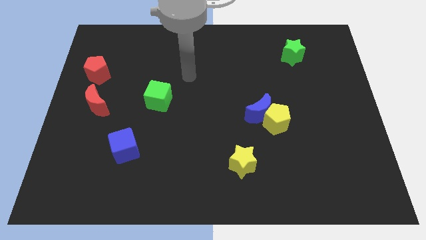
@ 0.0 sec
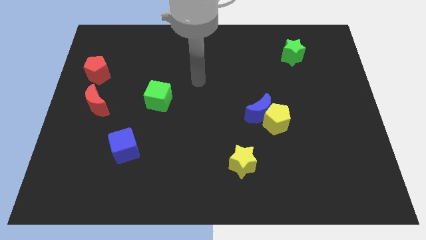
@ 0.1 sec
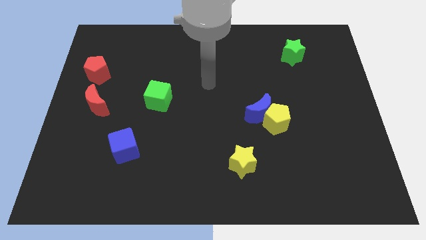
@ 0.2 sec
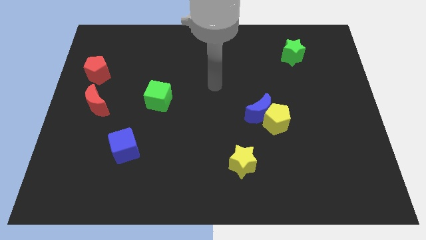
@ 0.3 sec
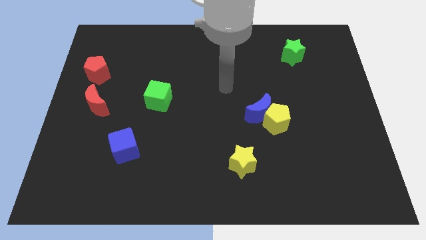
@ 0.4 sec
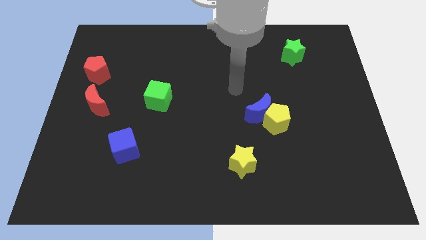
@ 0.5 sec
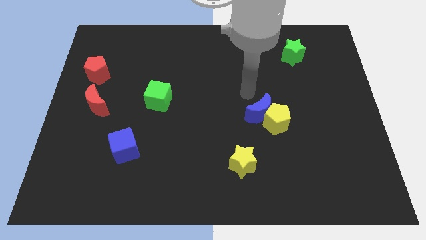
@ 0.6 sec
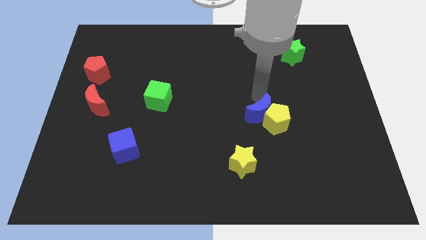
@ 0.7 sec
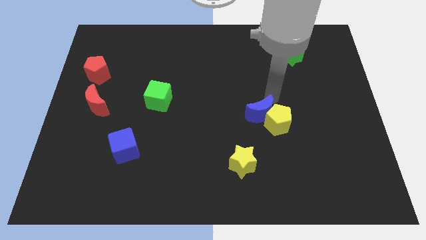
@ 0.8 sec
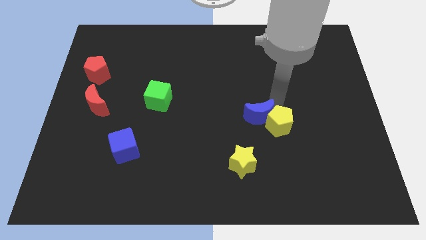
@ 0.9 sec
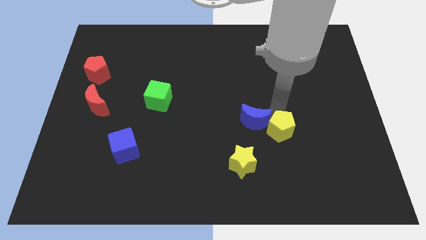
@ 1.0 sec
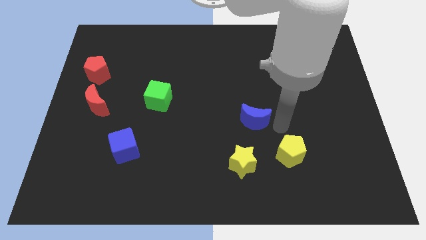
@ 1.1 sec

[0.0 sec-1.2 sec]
pull the blue moon apart from the yellow pentagon

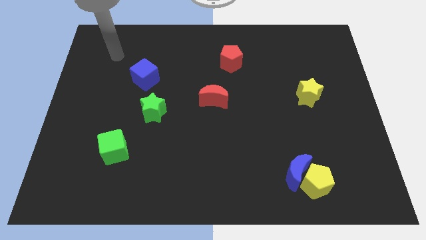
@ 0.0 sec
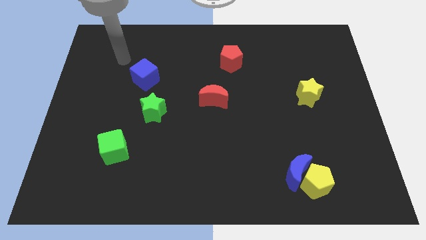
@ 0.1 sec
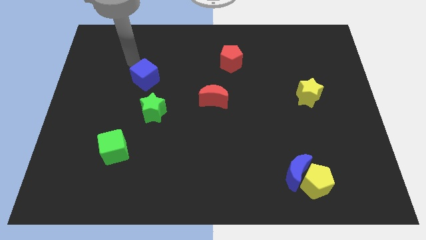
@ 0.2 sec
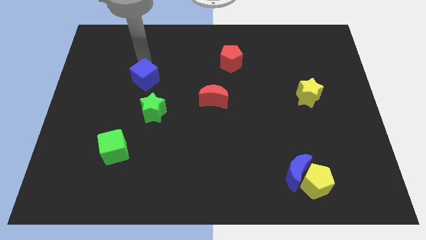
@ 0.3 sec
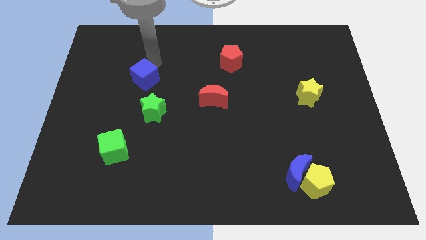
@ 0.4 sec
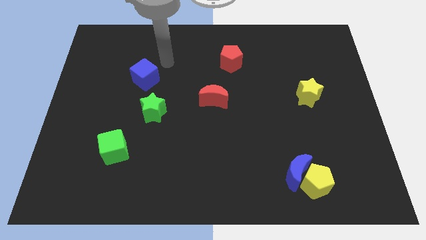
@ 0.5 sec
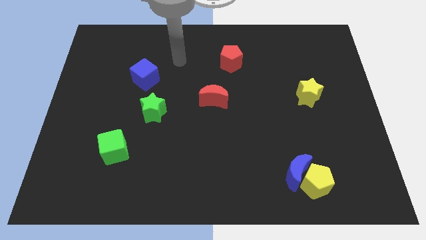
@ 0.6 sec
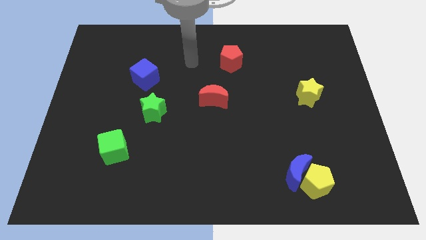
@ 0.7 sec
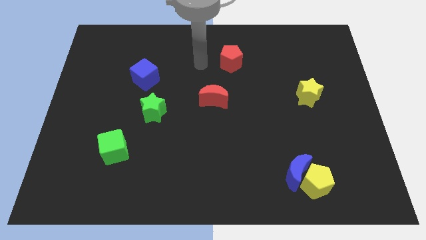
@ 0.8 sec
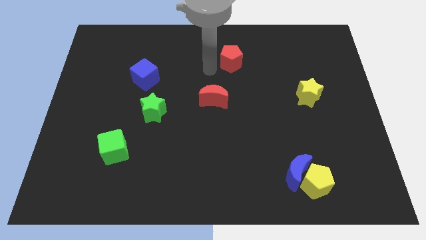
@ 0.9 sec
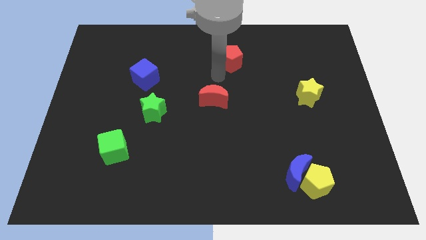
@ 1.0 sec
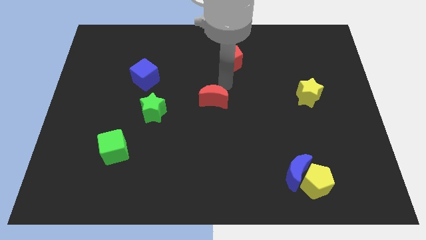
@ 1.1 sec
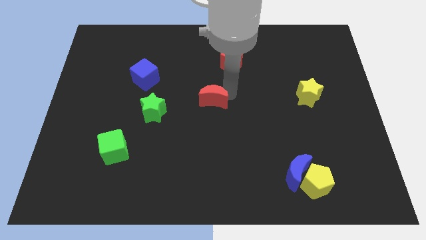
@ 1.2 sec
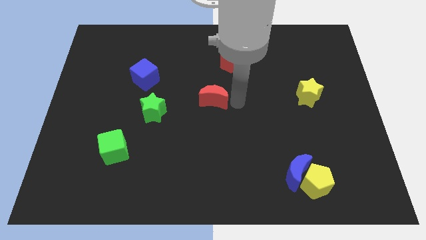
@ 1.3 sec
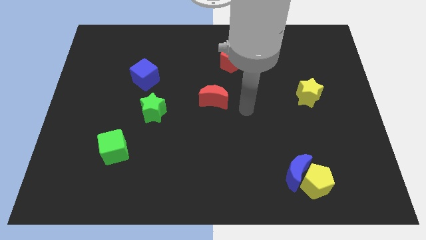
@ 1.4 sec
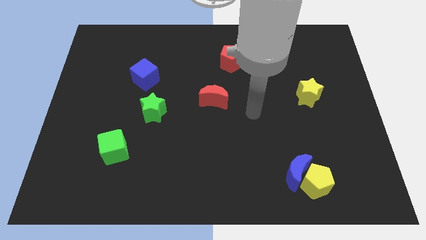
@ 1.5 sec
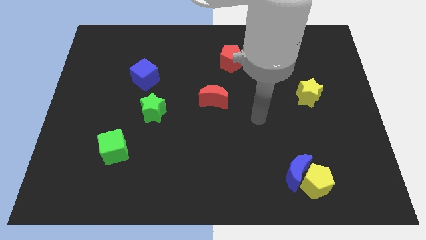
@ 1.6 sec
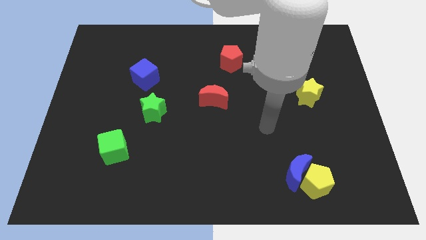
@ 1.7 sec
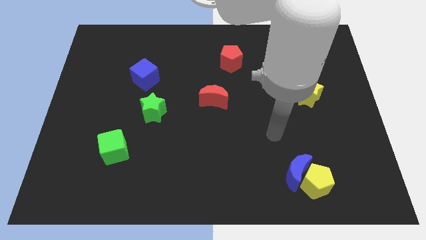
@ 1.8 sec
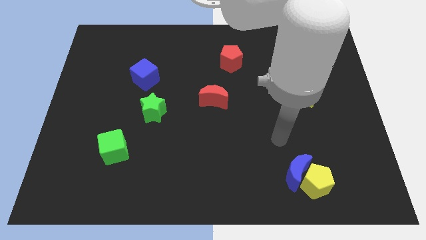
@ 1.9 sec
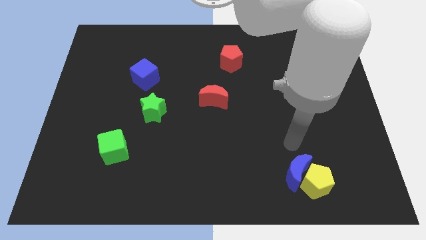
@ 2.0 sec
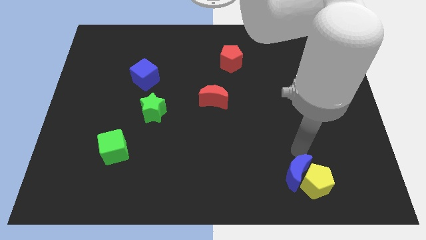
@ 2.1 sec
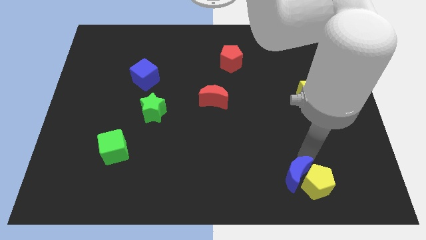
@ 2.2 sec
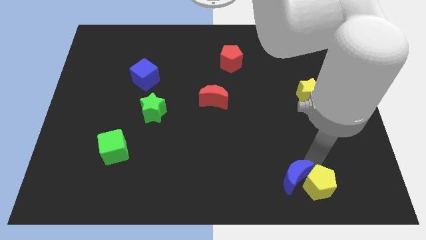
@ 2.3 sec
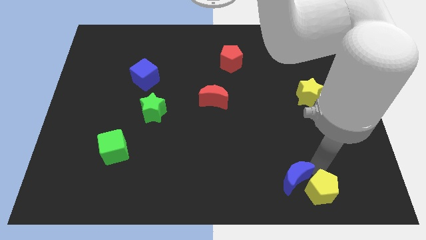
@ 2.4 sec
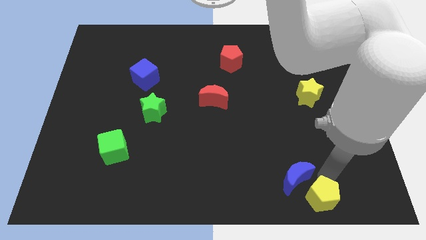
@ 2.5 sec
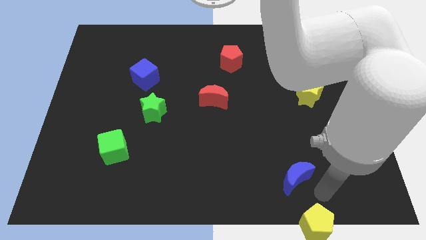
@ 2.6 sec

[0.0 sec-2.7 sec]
separate the blue moon from the yellow pentagon

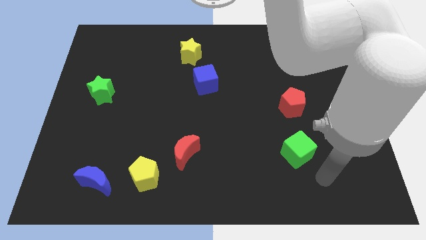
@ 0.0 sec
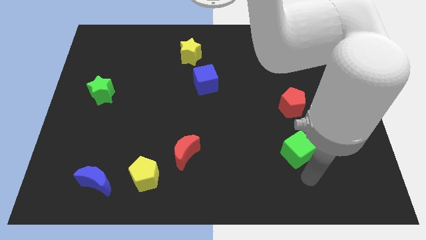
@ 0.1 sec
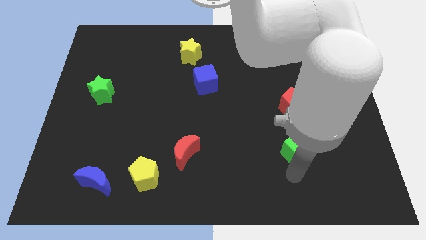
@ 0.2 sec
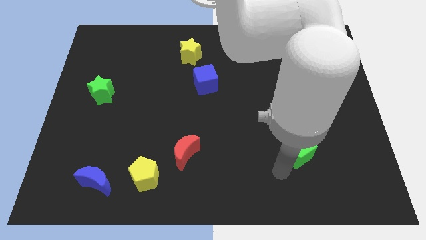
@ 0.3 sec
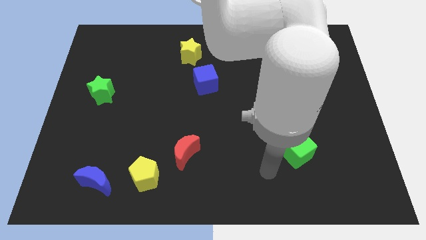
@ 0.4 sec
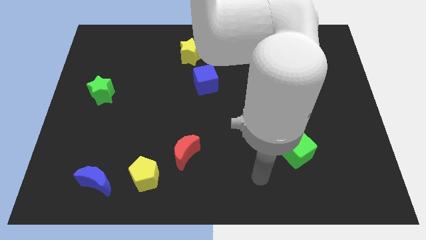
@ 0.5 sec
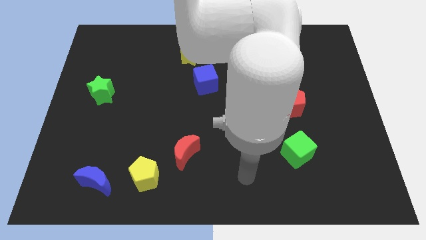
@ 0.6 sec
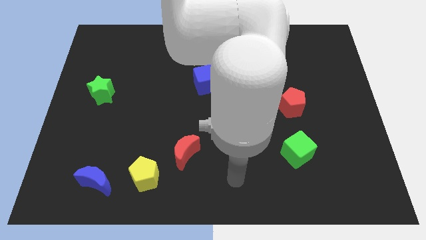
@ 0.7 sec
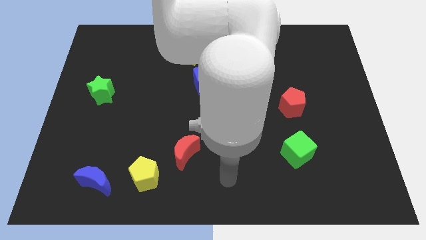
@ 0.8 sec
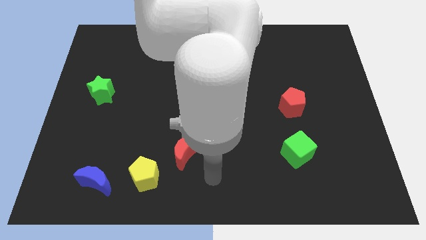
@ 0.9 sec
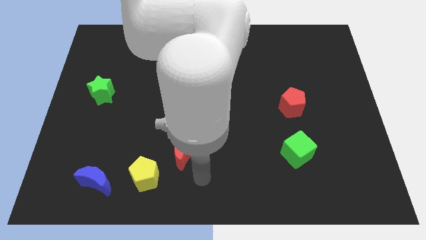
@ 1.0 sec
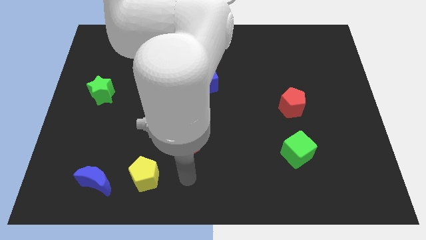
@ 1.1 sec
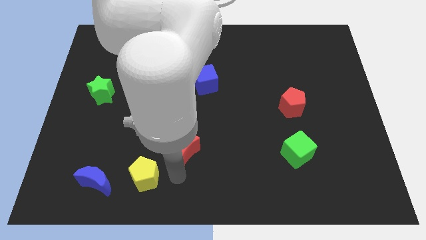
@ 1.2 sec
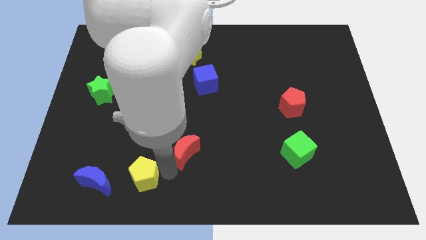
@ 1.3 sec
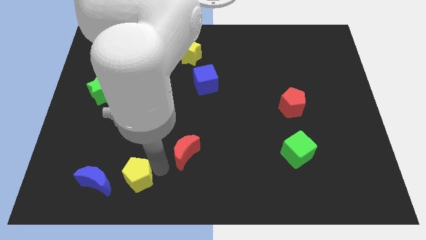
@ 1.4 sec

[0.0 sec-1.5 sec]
pull the red moon apart from the yellow pentagon

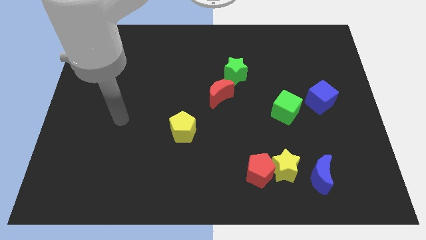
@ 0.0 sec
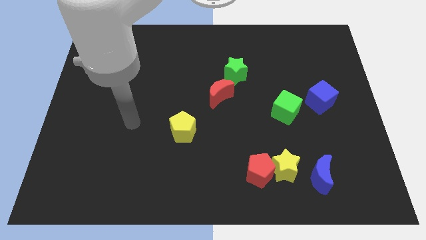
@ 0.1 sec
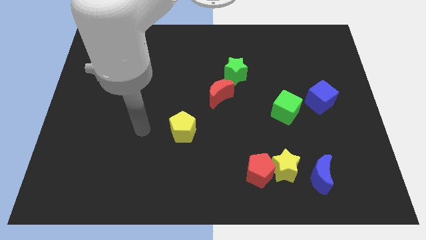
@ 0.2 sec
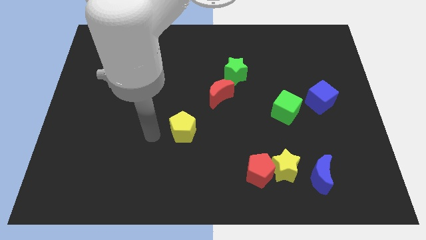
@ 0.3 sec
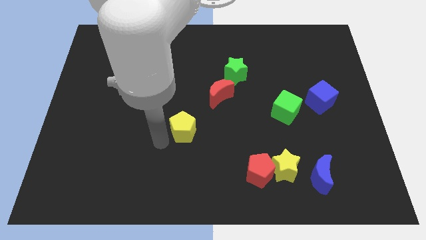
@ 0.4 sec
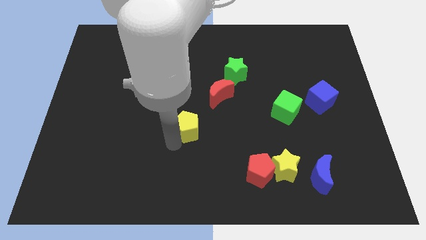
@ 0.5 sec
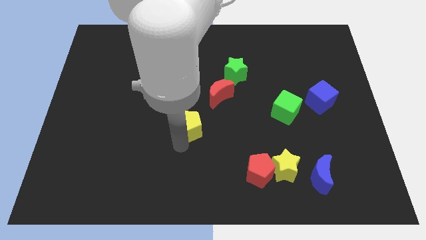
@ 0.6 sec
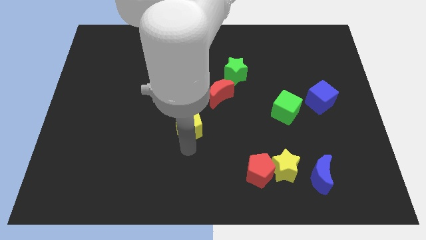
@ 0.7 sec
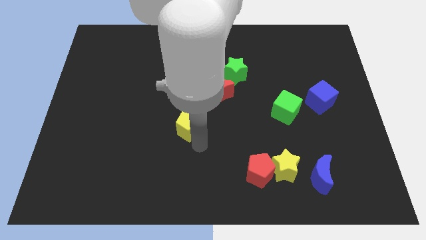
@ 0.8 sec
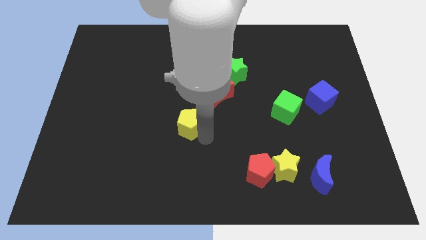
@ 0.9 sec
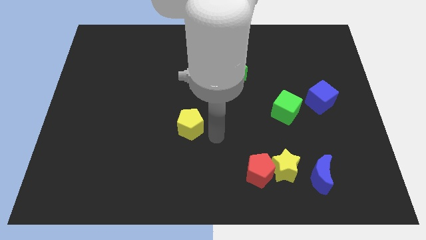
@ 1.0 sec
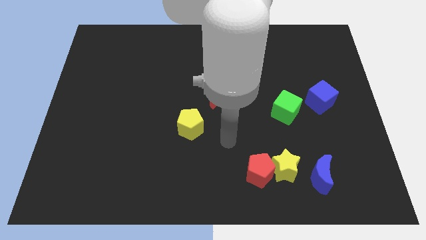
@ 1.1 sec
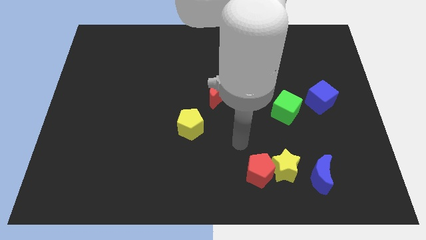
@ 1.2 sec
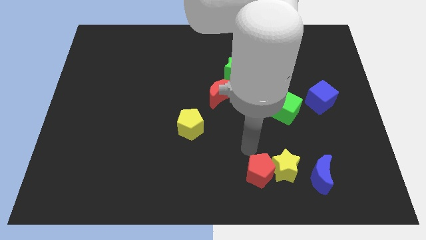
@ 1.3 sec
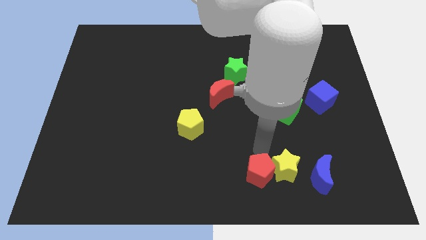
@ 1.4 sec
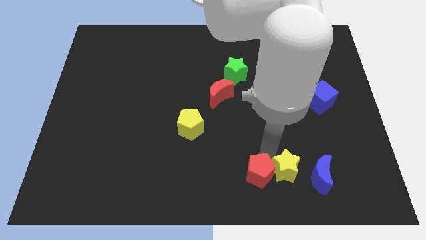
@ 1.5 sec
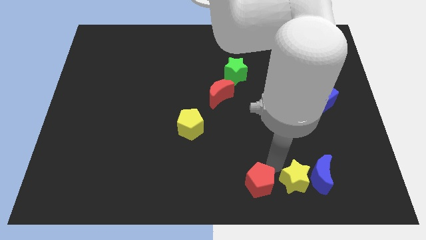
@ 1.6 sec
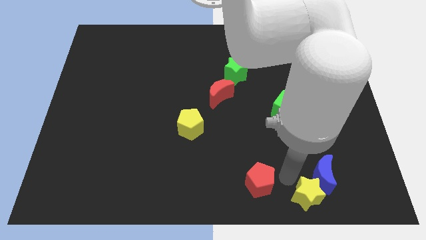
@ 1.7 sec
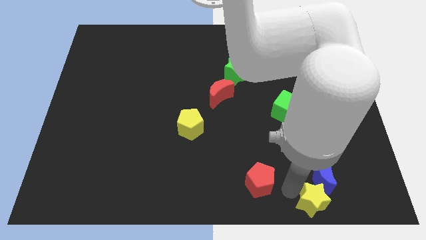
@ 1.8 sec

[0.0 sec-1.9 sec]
separate the red pentagon from the yellow star

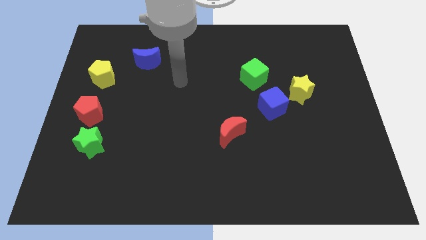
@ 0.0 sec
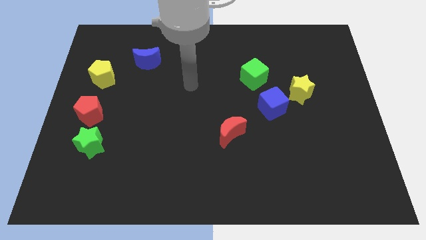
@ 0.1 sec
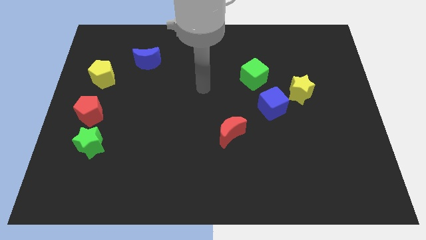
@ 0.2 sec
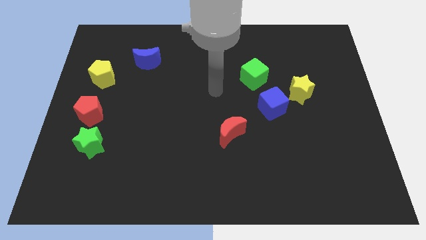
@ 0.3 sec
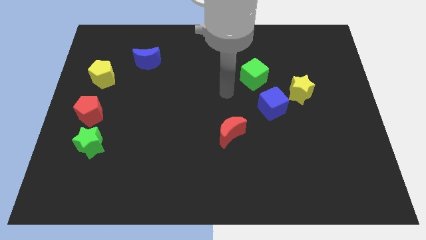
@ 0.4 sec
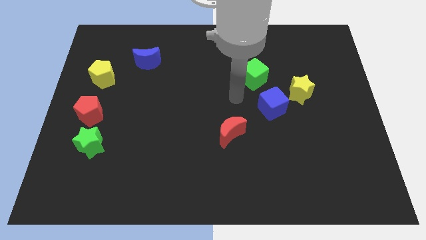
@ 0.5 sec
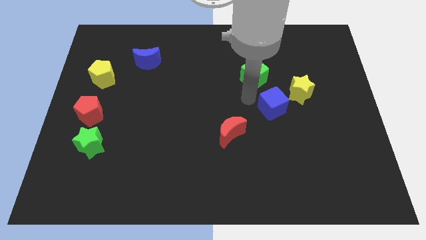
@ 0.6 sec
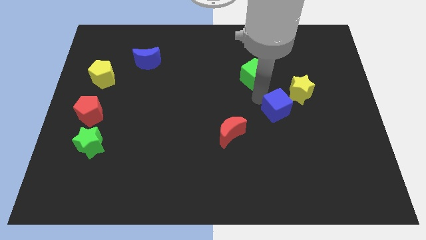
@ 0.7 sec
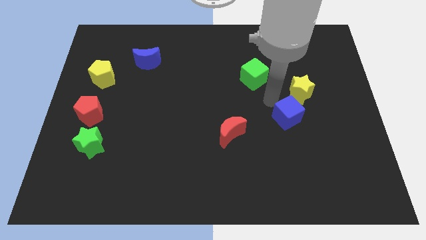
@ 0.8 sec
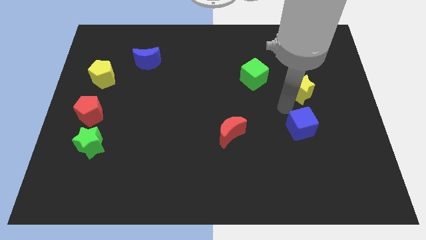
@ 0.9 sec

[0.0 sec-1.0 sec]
move the yellow star away from the blue cube

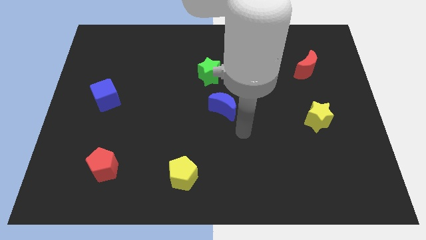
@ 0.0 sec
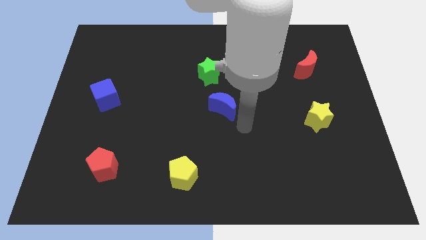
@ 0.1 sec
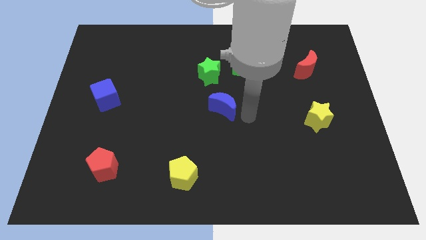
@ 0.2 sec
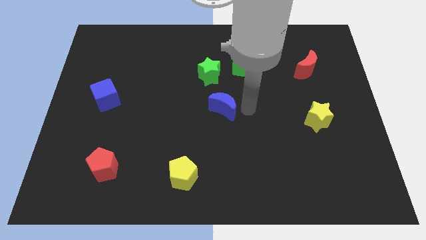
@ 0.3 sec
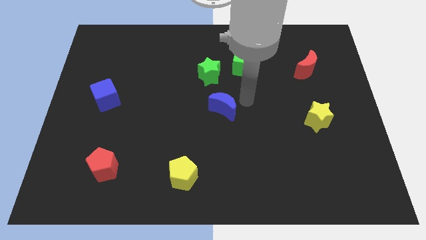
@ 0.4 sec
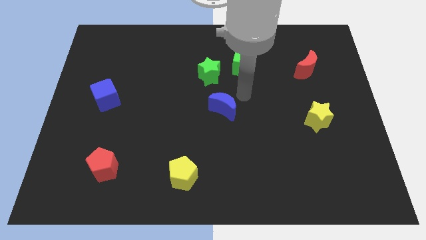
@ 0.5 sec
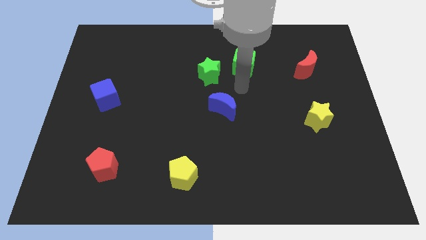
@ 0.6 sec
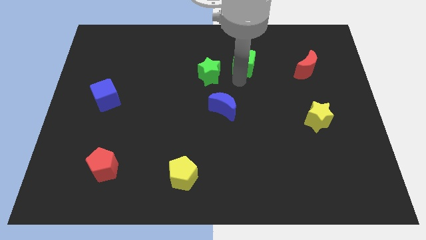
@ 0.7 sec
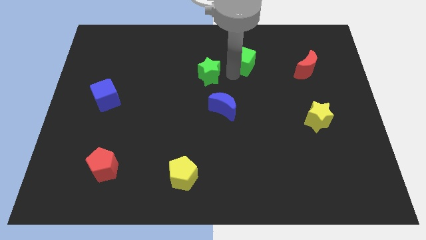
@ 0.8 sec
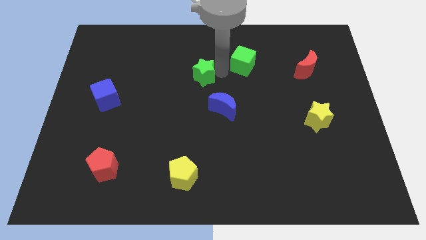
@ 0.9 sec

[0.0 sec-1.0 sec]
separate the green cube from the green star
